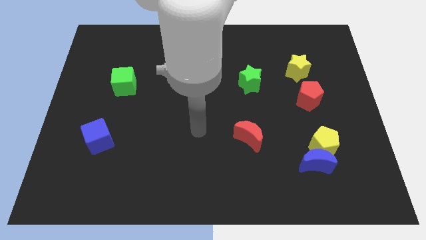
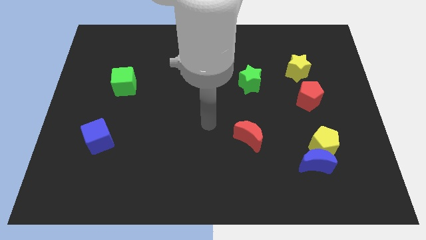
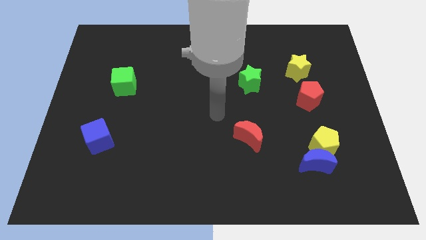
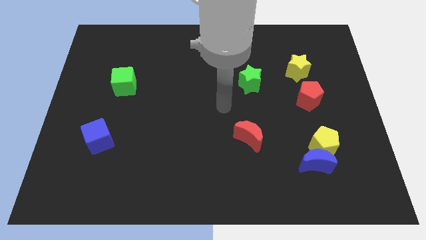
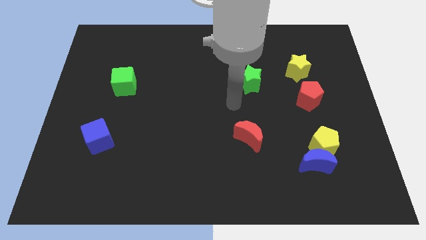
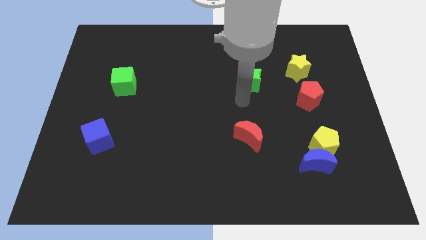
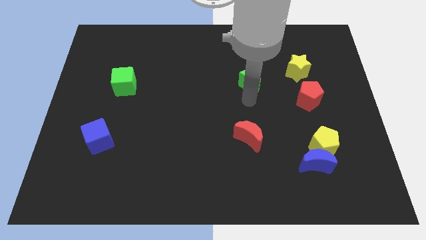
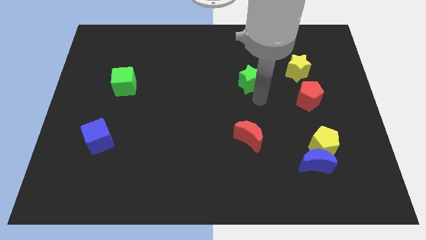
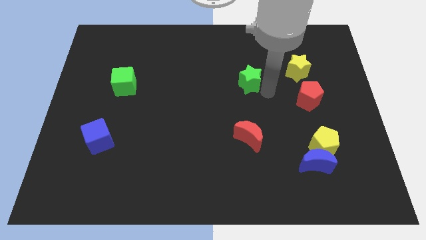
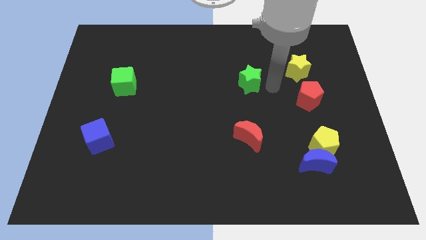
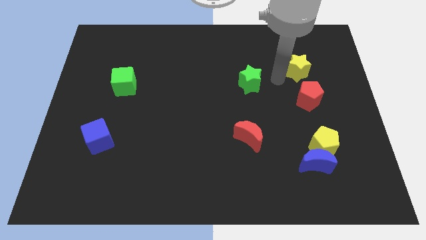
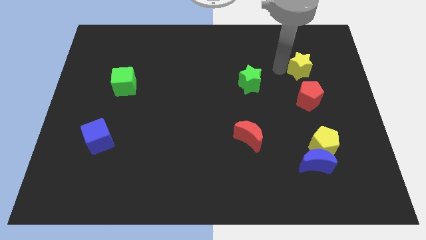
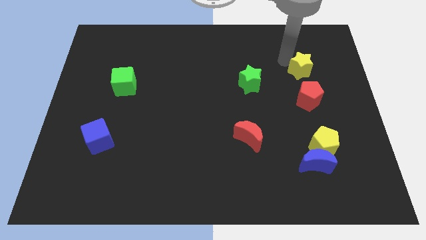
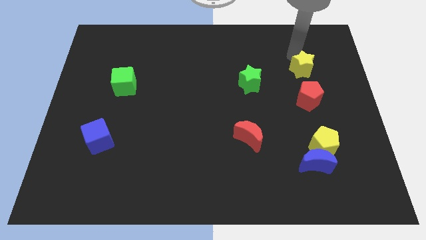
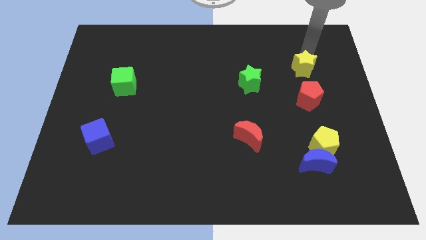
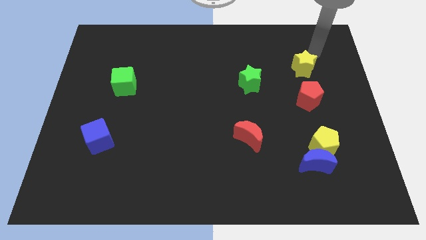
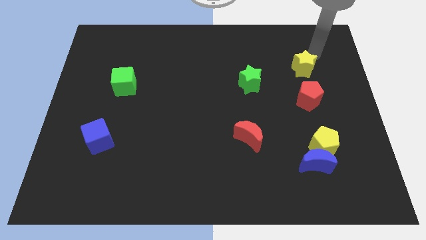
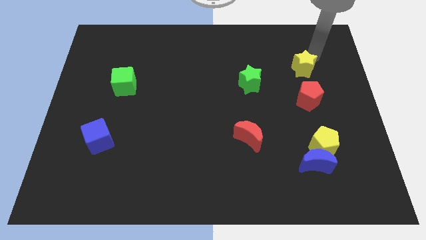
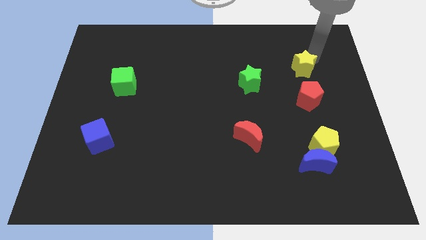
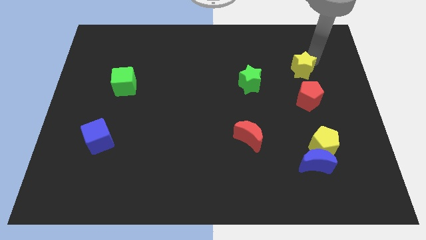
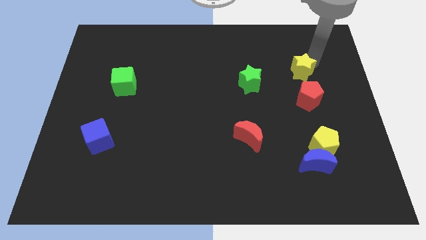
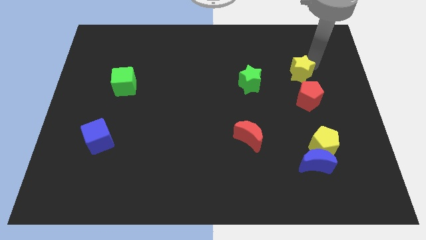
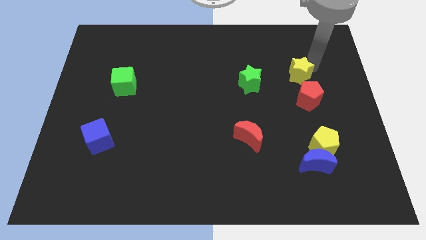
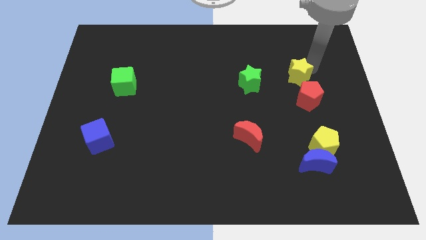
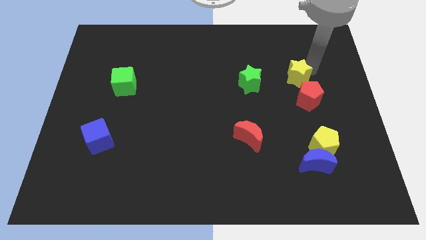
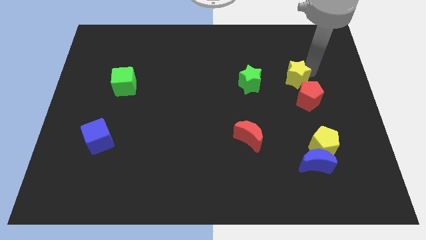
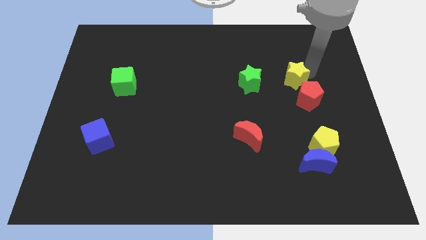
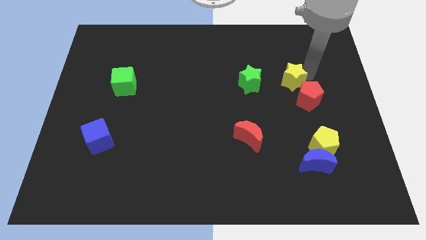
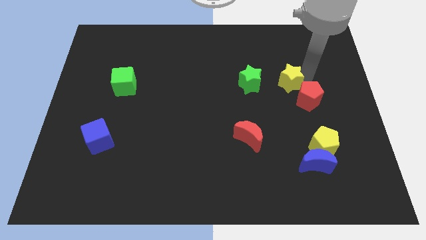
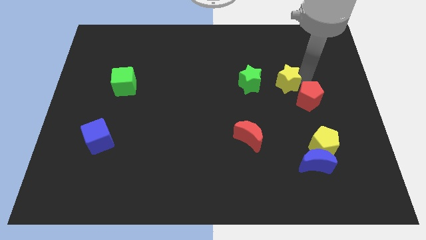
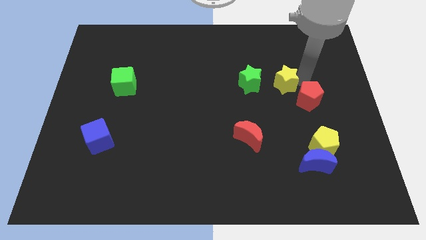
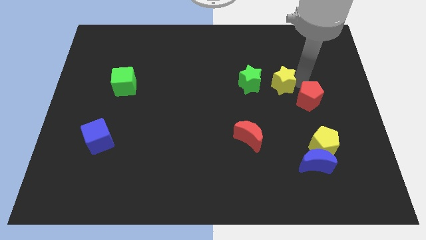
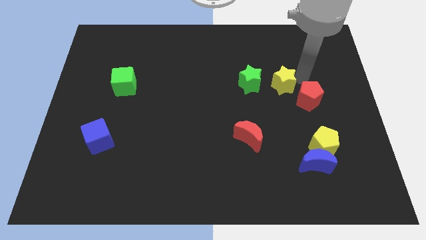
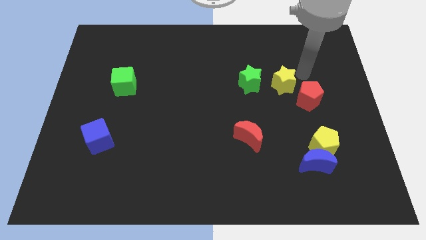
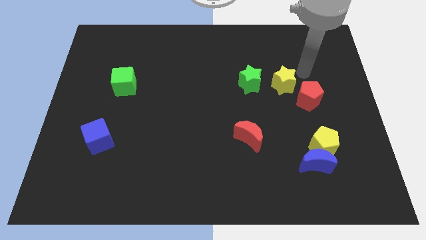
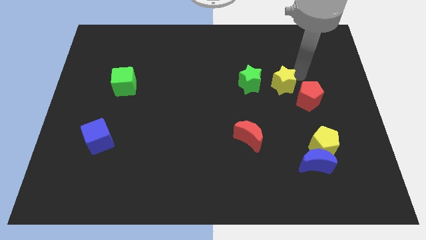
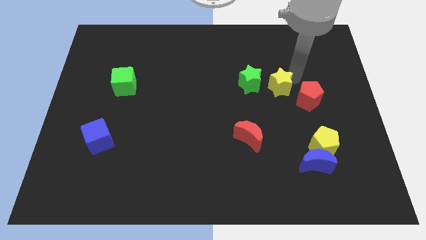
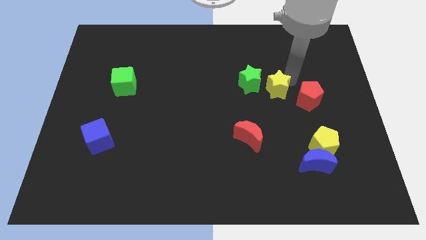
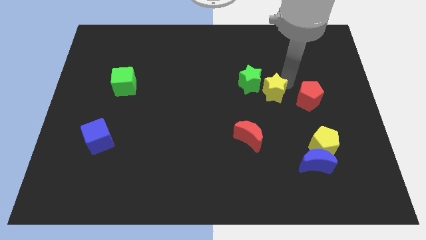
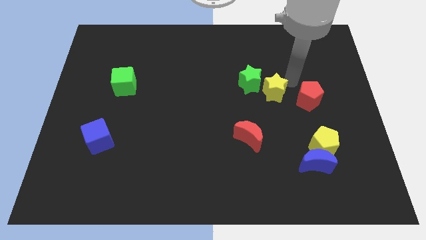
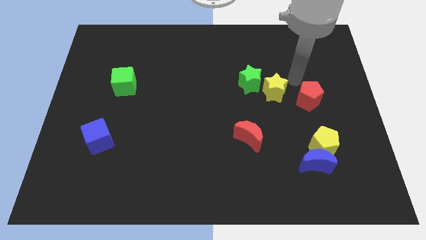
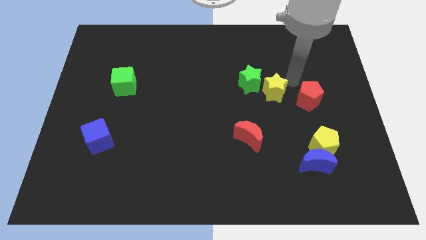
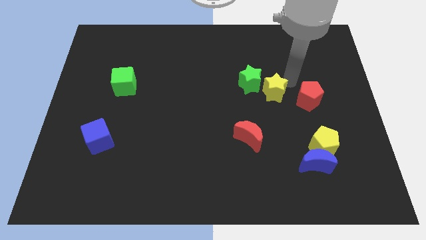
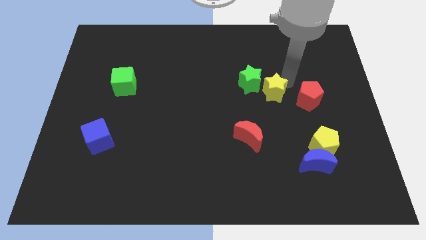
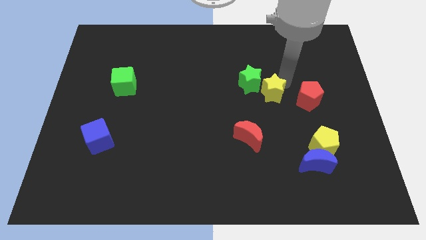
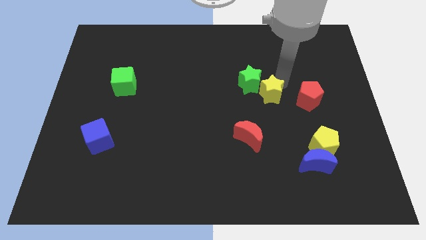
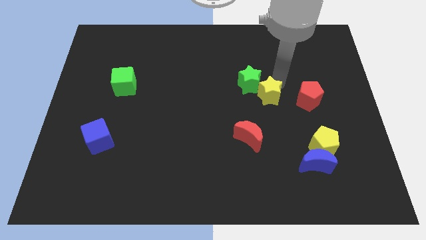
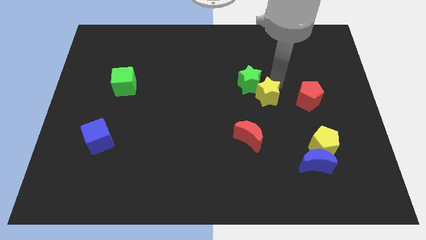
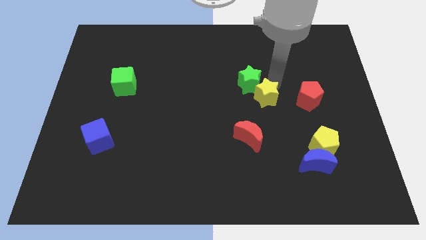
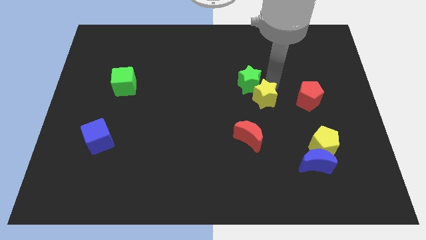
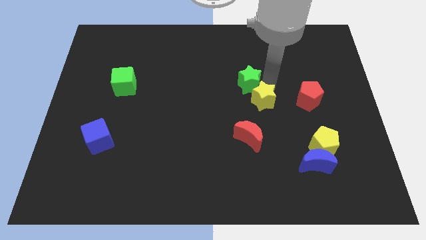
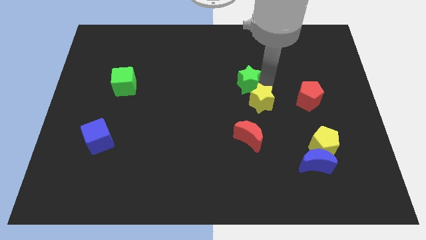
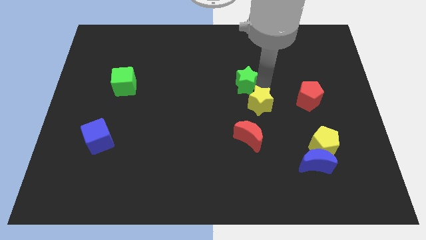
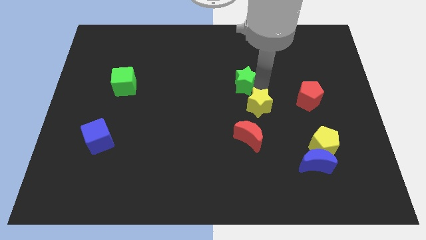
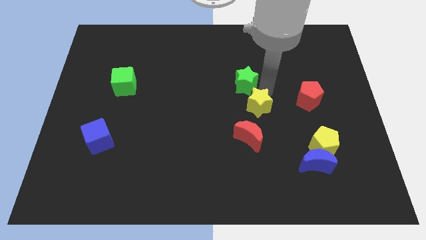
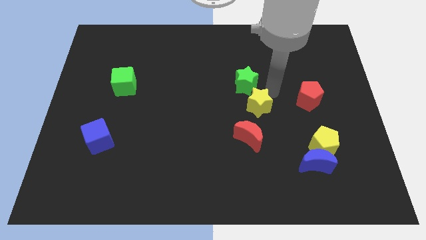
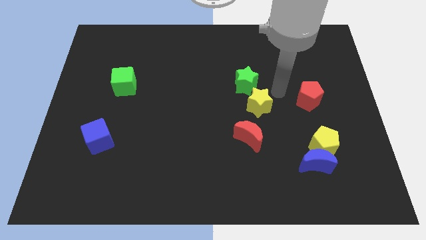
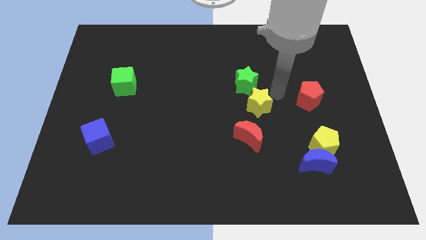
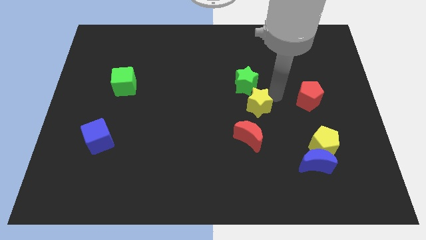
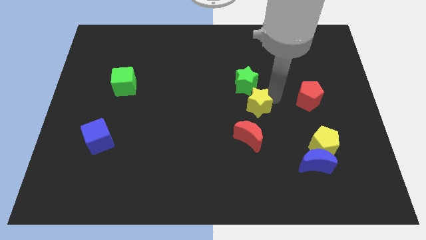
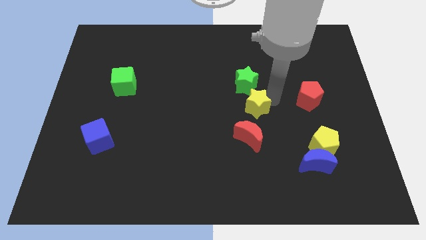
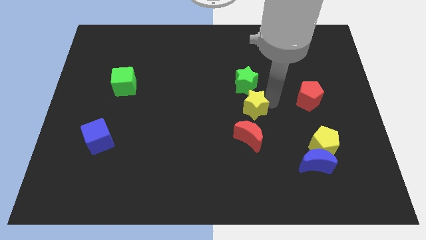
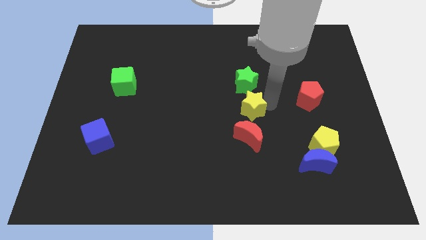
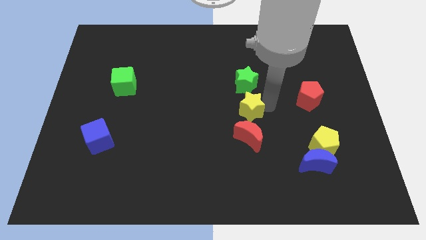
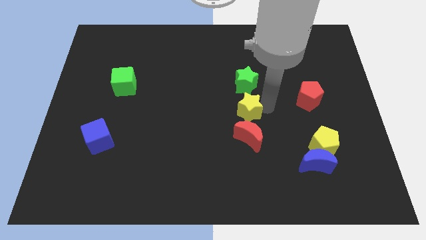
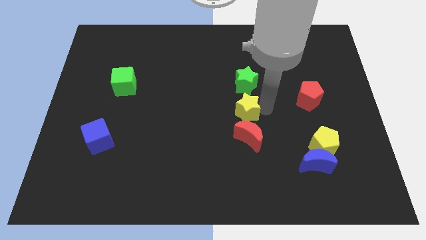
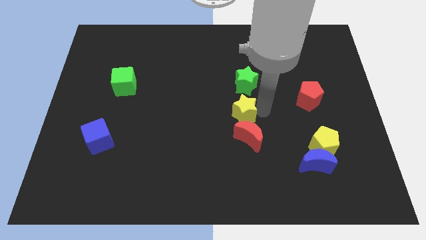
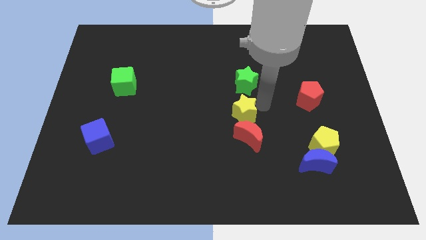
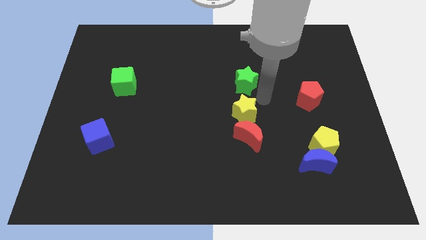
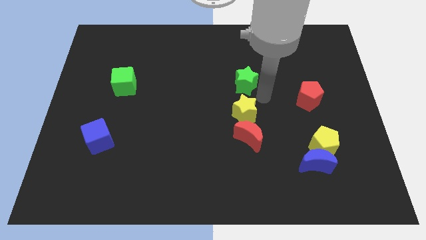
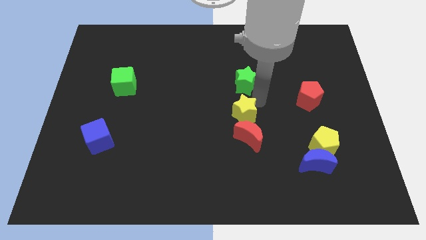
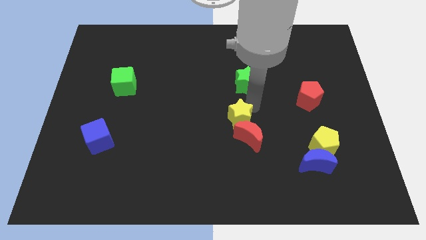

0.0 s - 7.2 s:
push the yellow star downwards and left diagonally

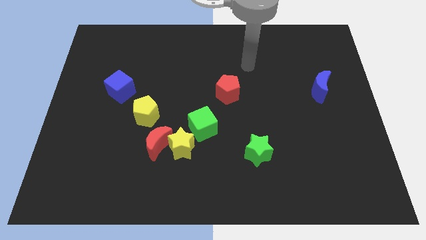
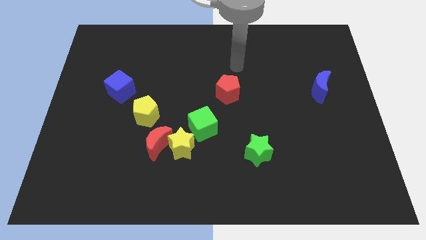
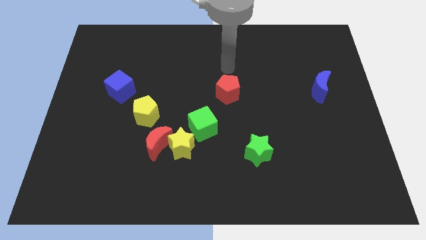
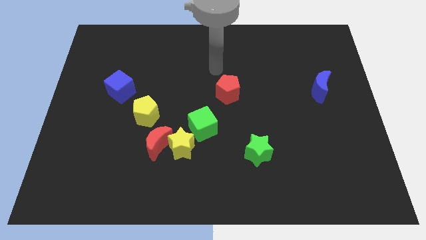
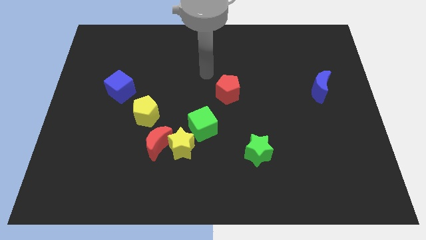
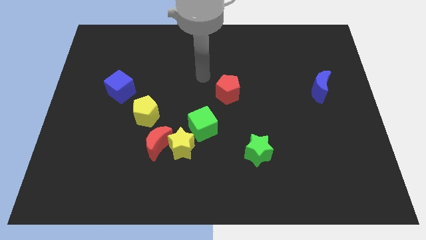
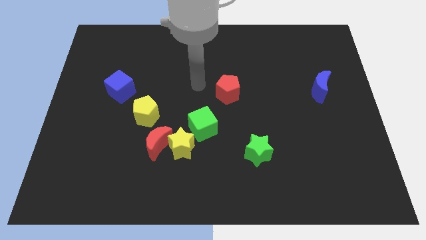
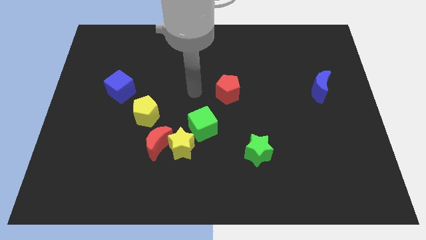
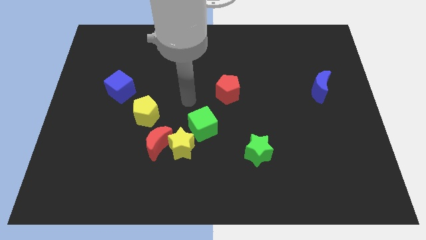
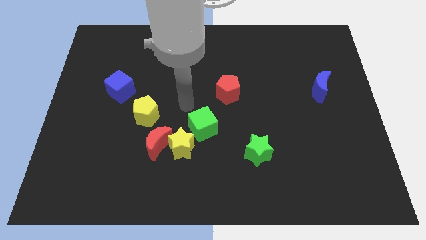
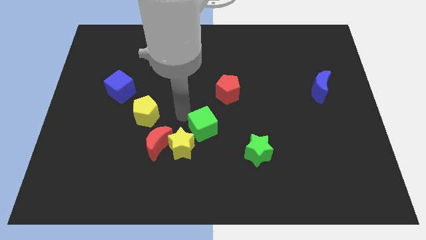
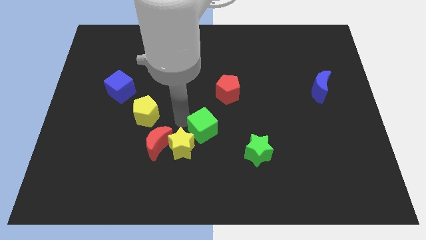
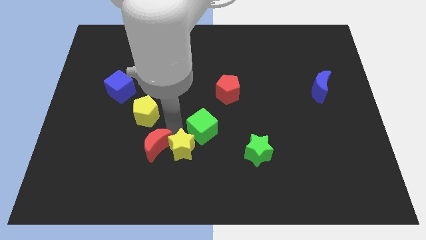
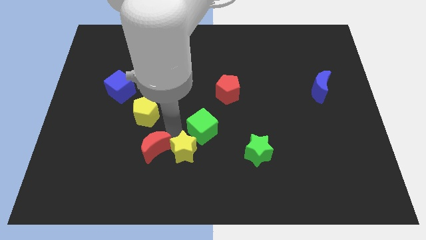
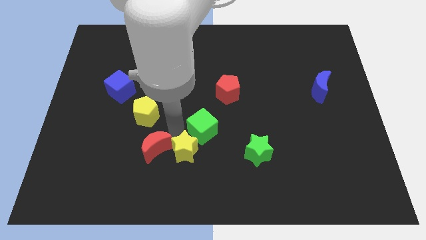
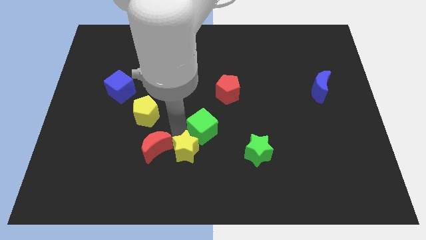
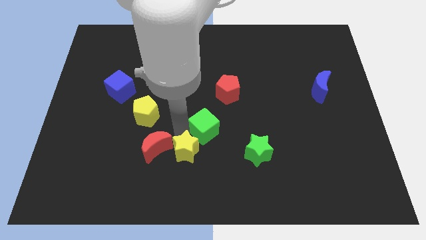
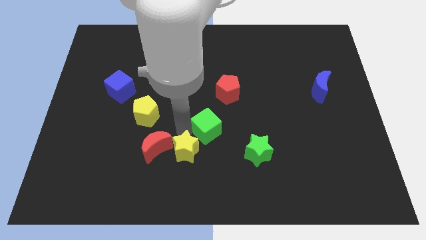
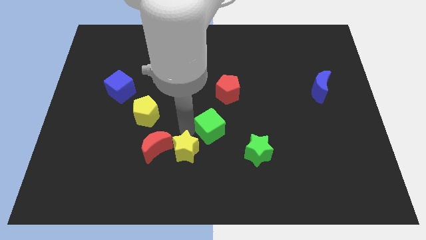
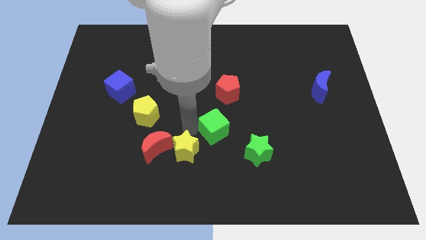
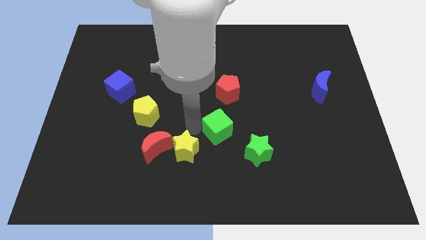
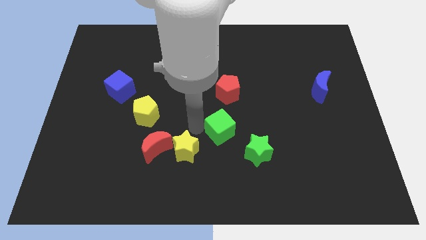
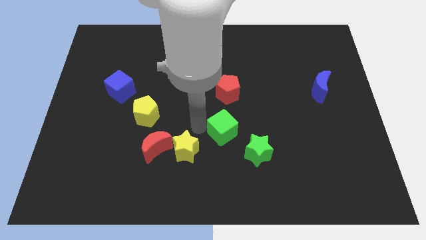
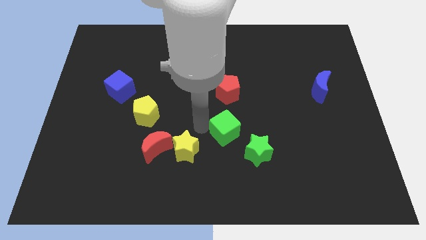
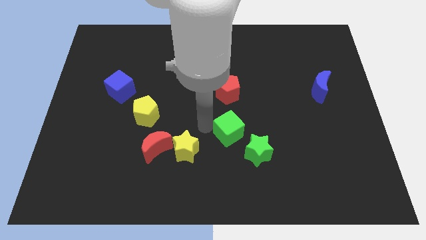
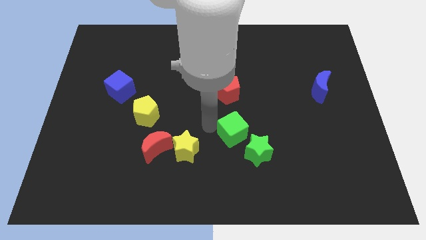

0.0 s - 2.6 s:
push the green cube slightly right
